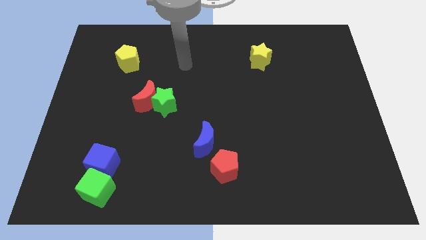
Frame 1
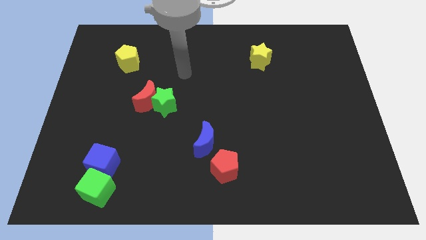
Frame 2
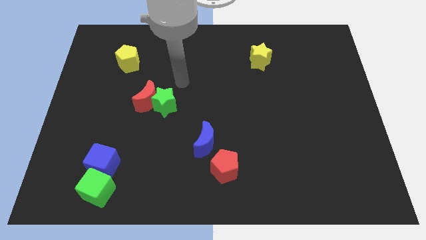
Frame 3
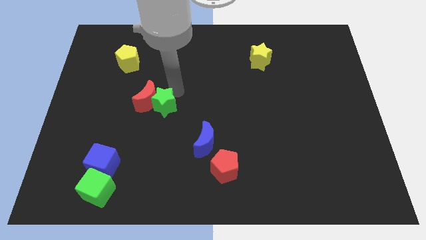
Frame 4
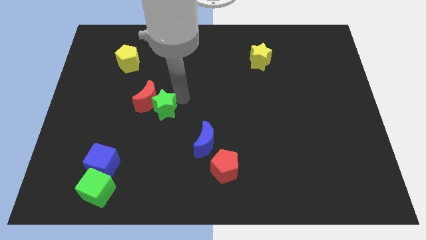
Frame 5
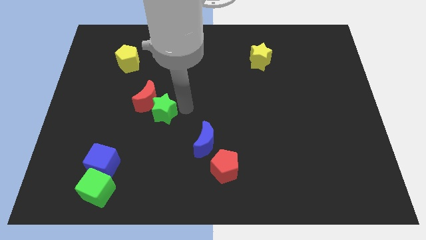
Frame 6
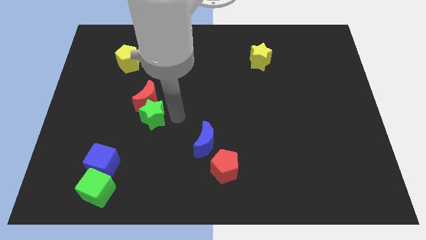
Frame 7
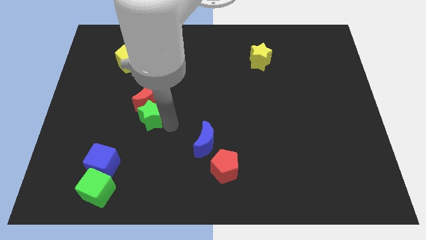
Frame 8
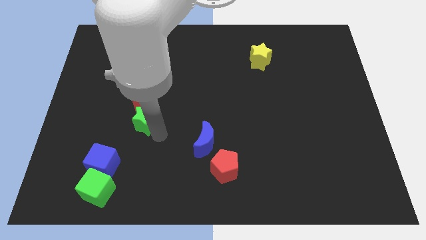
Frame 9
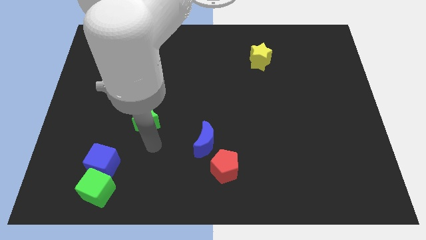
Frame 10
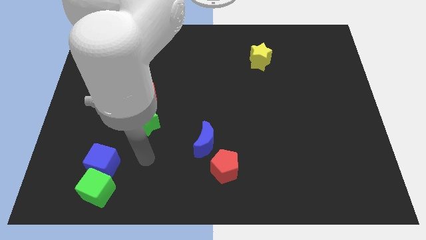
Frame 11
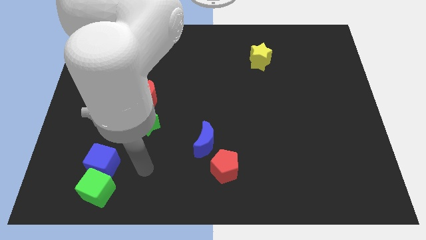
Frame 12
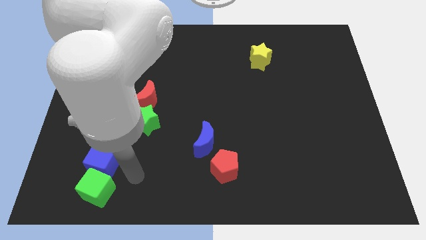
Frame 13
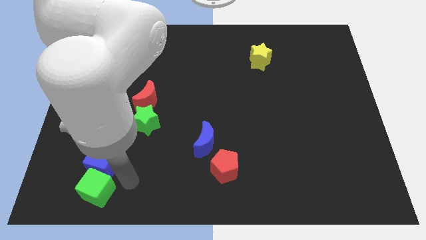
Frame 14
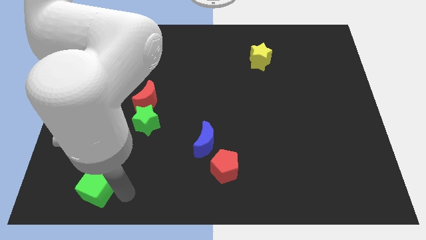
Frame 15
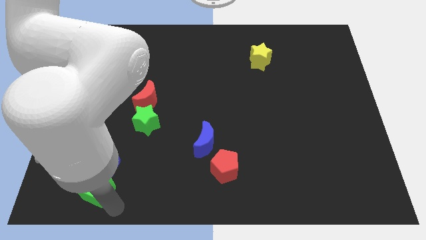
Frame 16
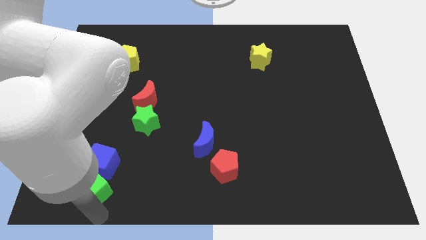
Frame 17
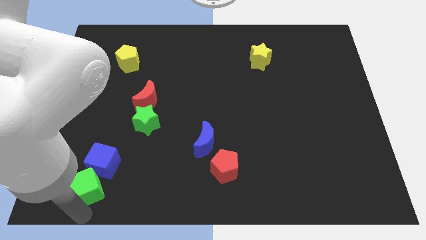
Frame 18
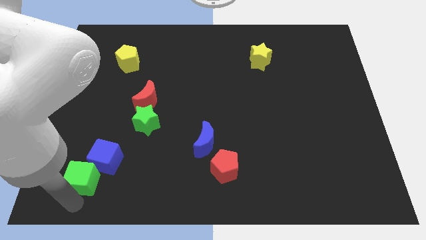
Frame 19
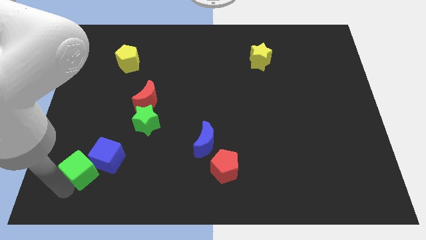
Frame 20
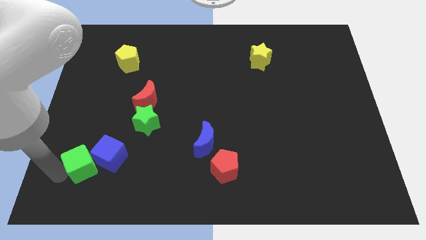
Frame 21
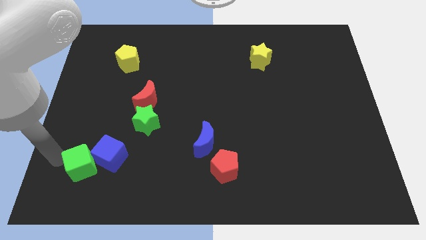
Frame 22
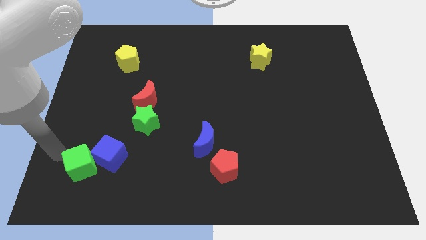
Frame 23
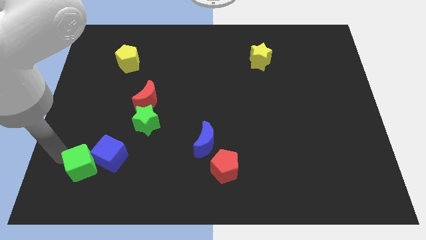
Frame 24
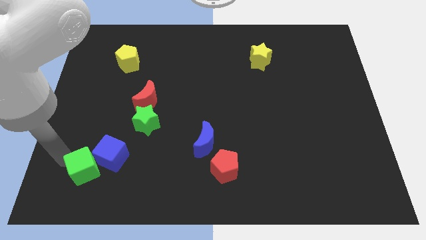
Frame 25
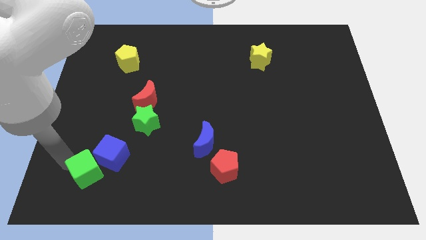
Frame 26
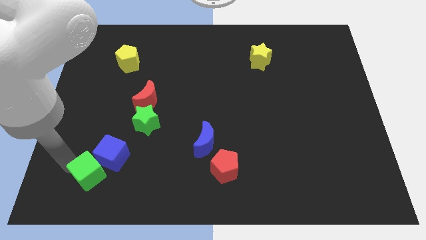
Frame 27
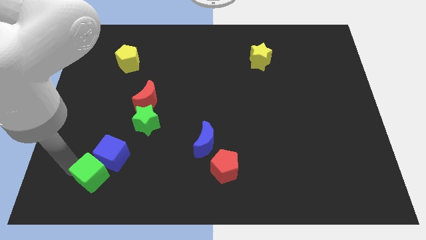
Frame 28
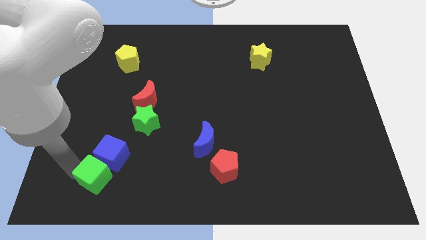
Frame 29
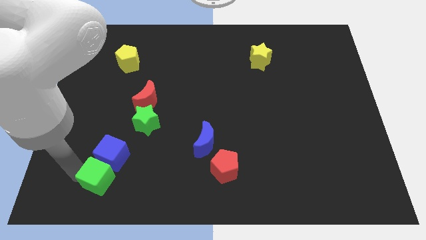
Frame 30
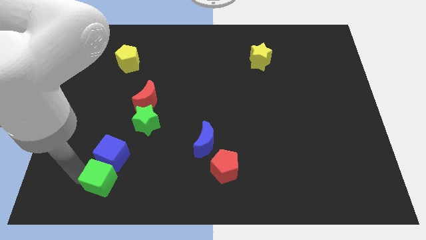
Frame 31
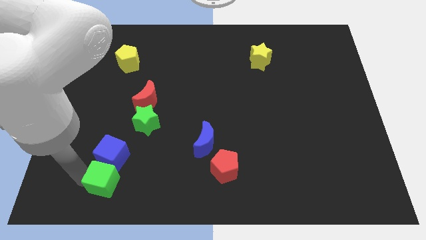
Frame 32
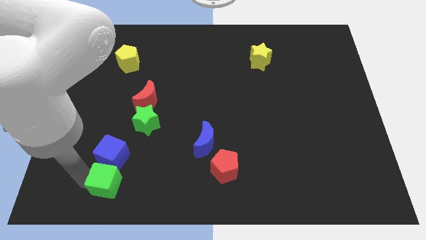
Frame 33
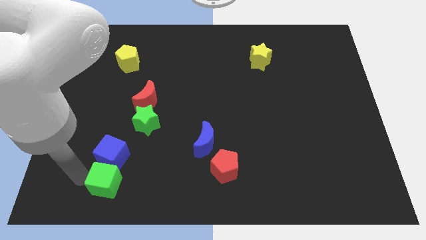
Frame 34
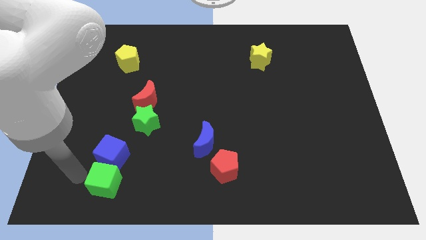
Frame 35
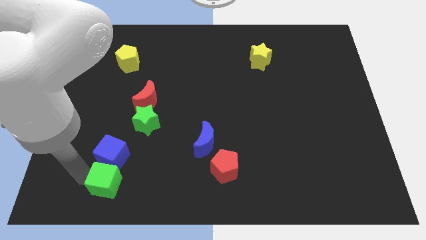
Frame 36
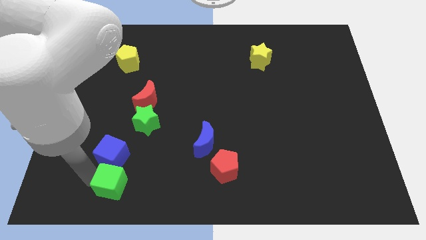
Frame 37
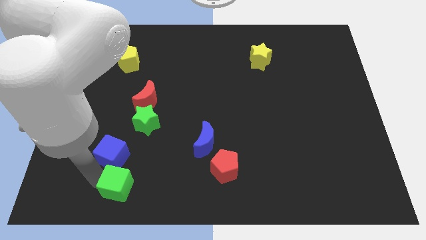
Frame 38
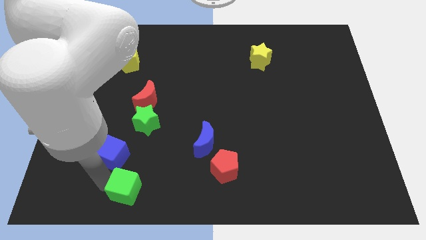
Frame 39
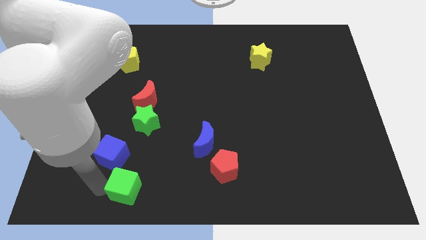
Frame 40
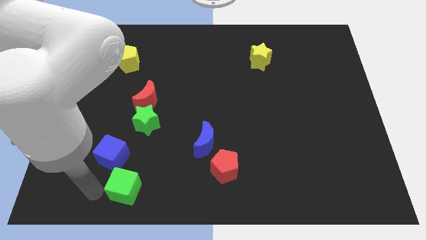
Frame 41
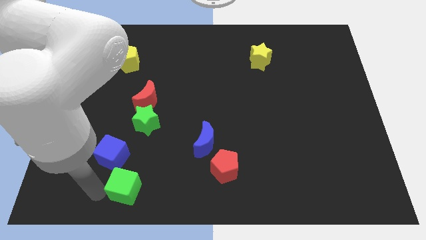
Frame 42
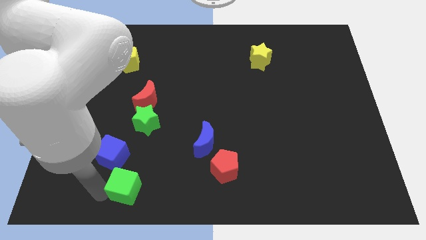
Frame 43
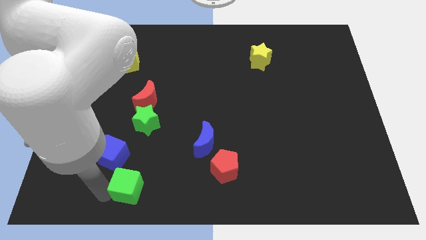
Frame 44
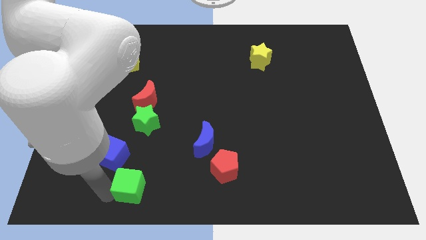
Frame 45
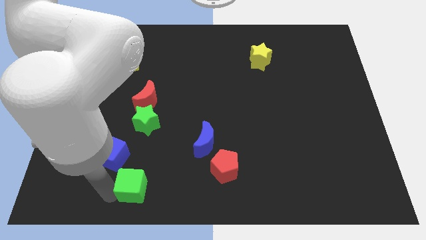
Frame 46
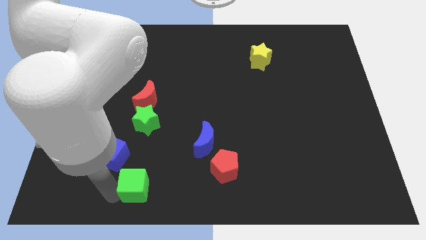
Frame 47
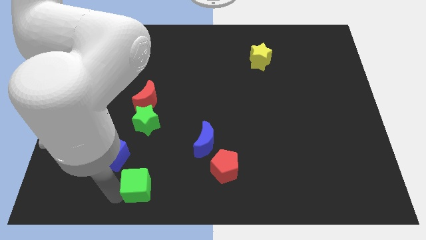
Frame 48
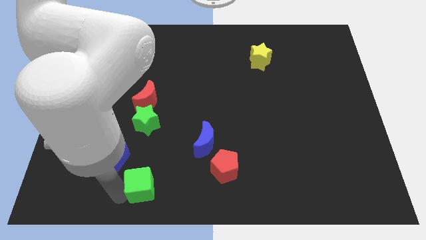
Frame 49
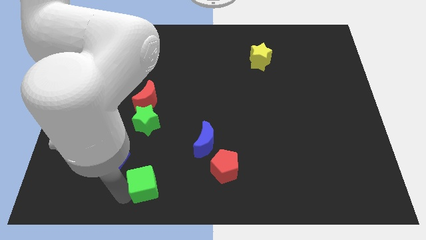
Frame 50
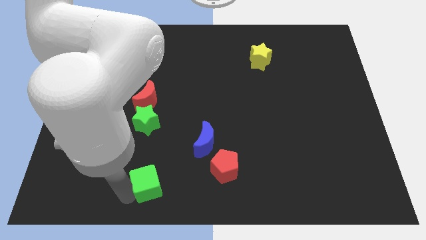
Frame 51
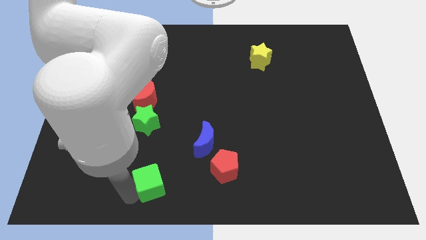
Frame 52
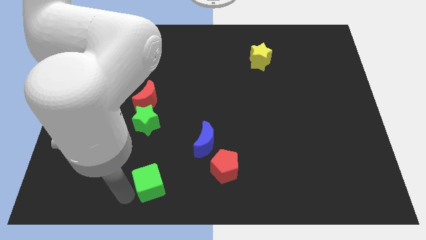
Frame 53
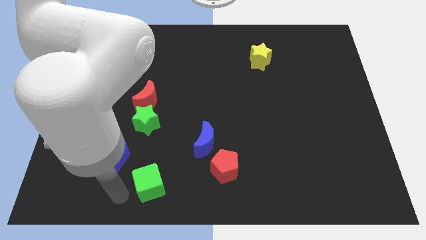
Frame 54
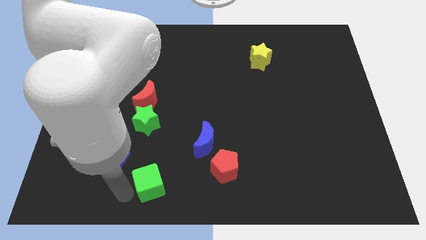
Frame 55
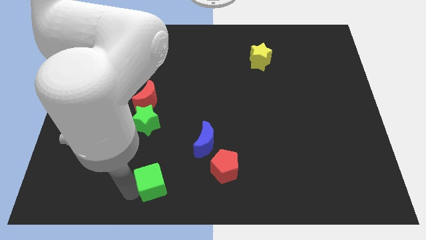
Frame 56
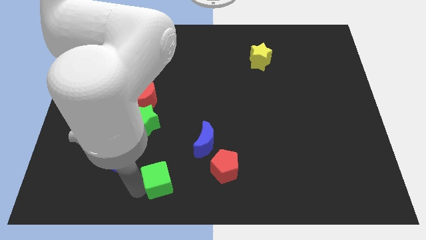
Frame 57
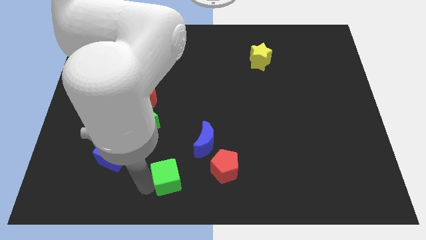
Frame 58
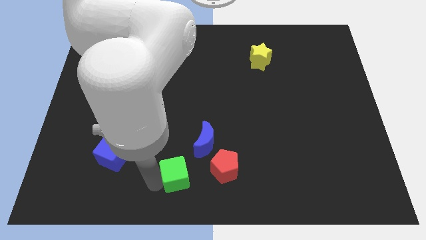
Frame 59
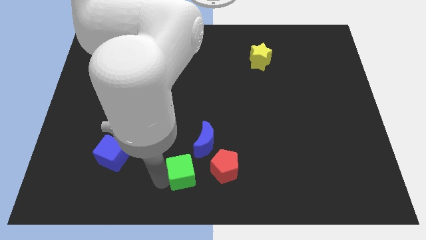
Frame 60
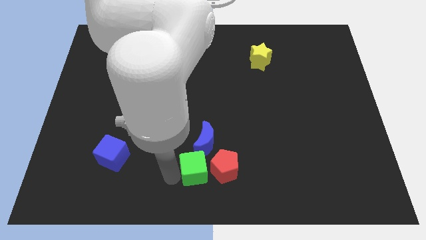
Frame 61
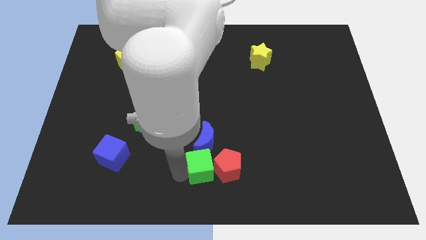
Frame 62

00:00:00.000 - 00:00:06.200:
move the green cube towards the red pentagon

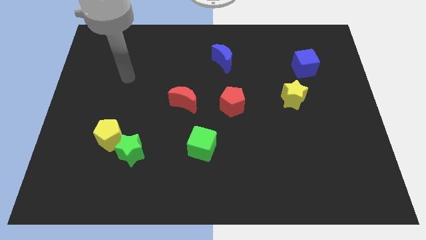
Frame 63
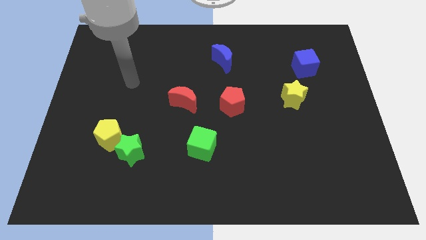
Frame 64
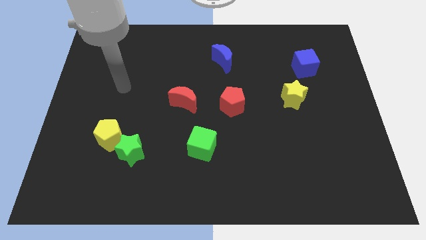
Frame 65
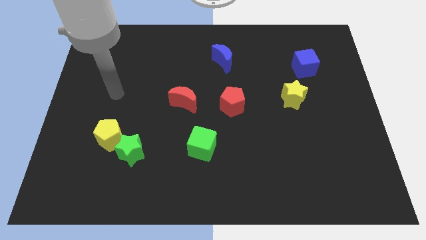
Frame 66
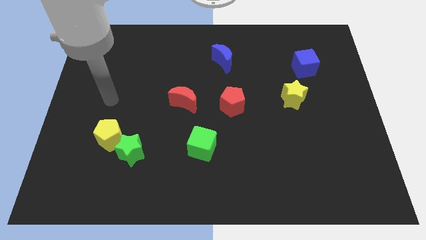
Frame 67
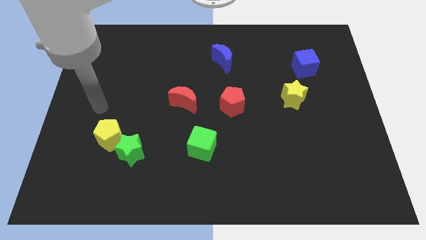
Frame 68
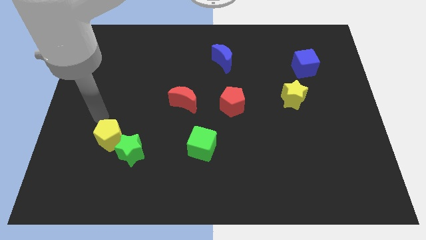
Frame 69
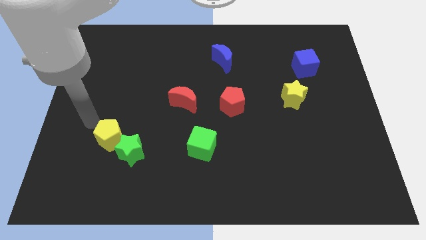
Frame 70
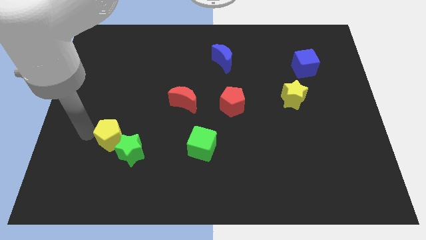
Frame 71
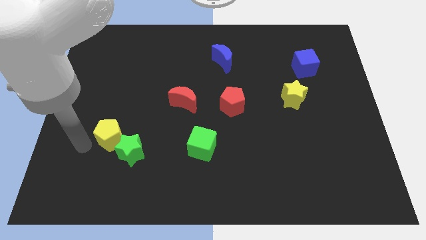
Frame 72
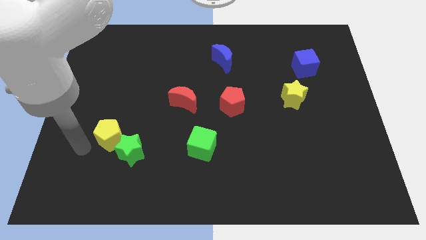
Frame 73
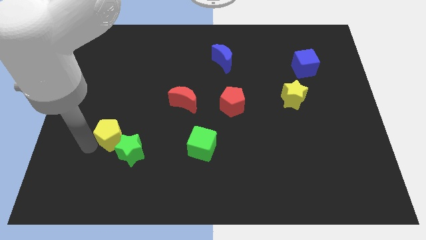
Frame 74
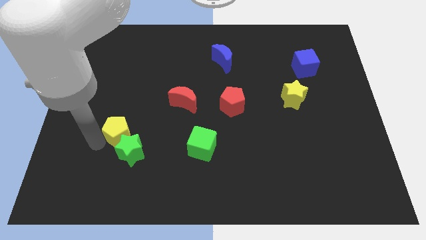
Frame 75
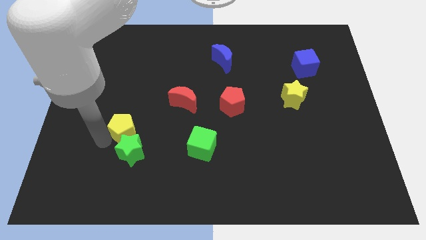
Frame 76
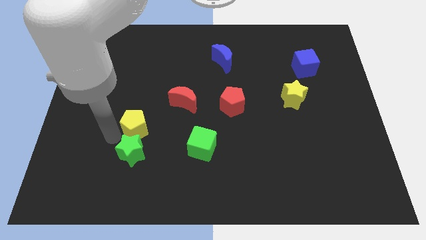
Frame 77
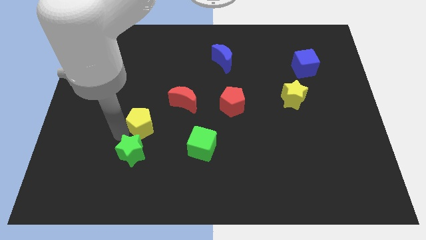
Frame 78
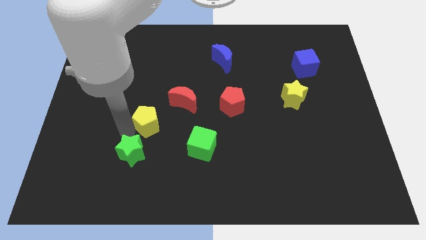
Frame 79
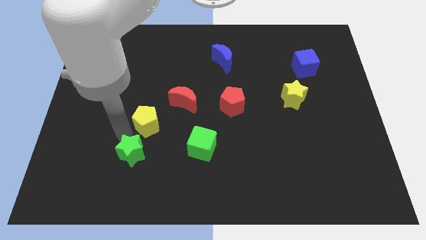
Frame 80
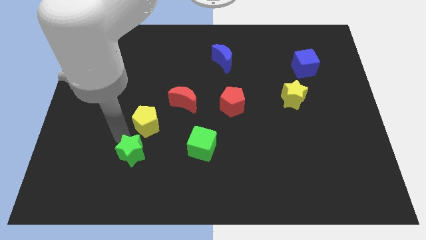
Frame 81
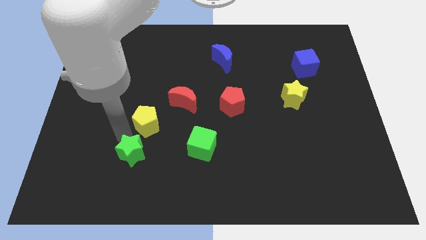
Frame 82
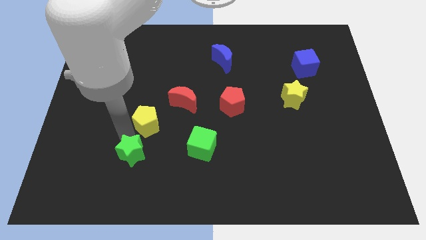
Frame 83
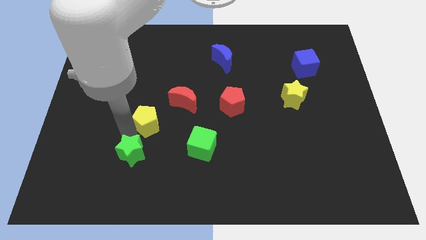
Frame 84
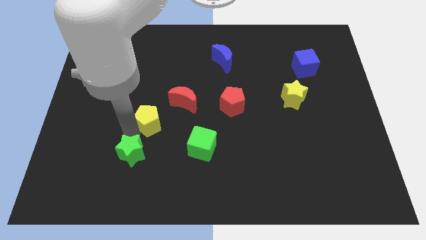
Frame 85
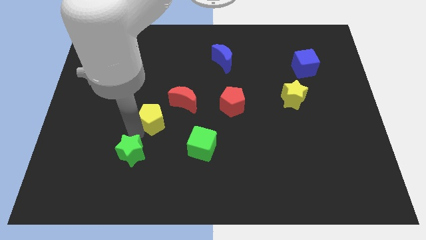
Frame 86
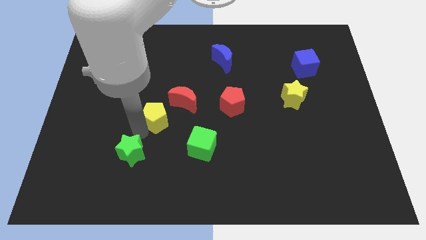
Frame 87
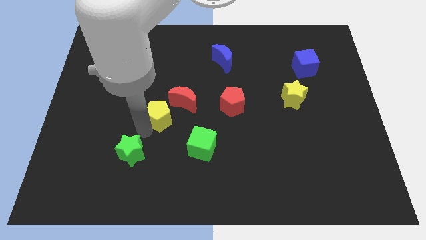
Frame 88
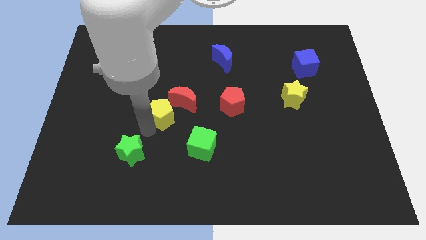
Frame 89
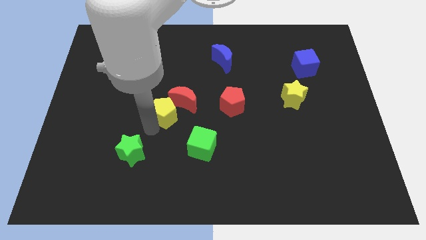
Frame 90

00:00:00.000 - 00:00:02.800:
move the yellow pentagon towards the red moon
